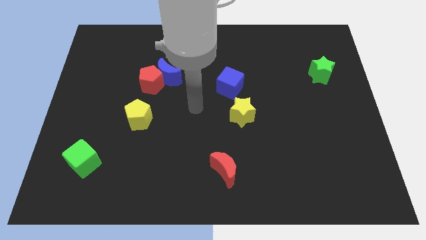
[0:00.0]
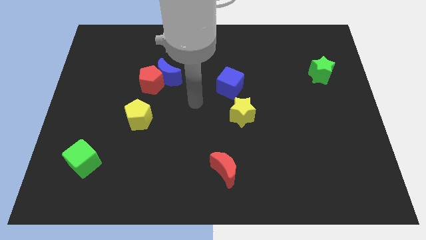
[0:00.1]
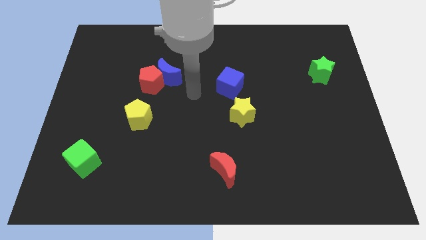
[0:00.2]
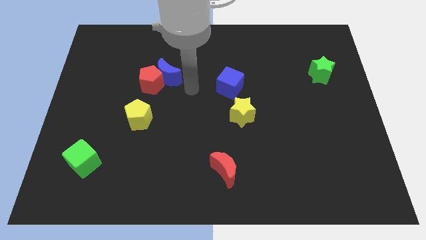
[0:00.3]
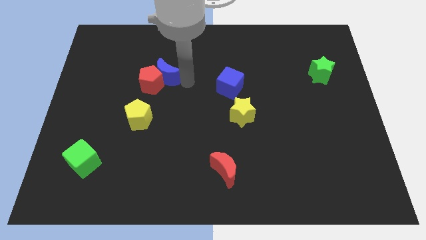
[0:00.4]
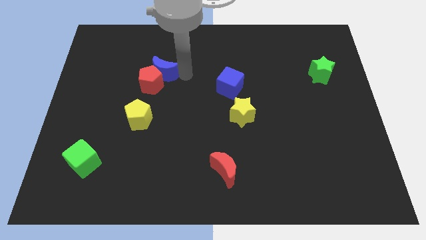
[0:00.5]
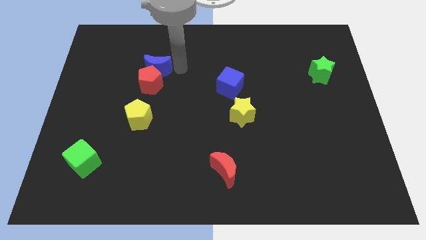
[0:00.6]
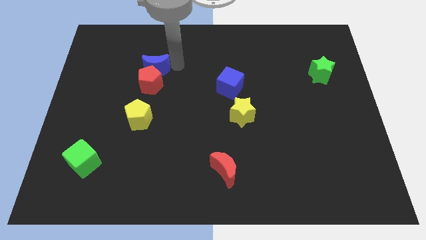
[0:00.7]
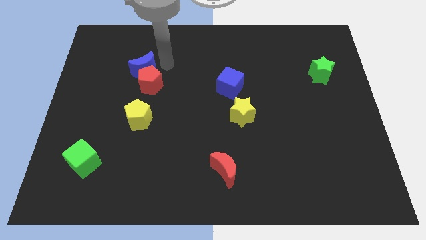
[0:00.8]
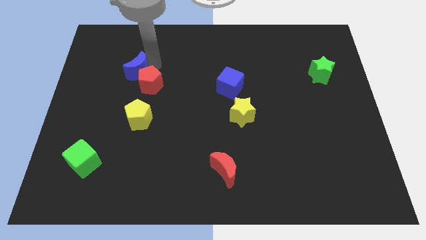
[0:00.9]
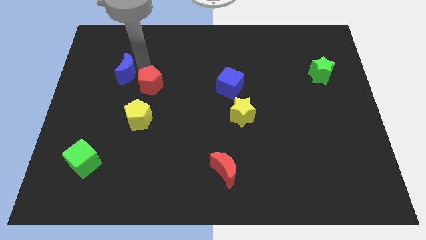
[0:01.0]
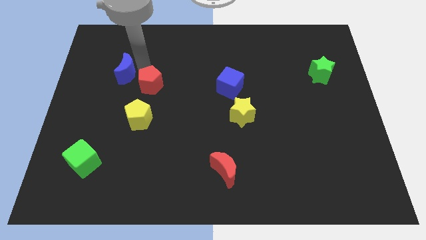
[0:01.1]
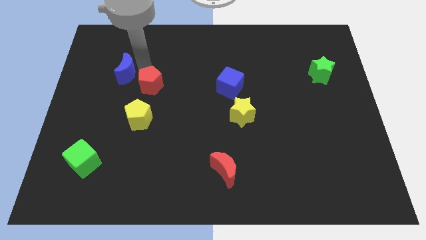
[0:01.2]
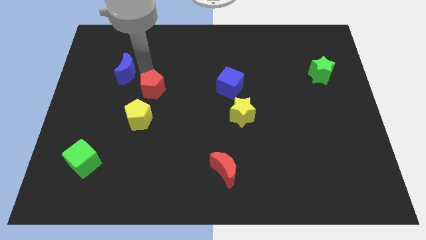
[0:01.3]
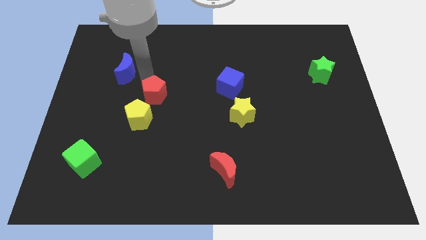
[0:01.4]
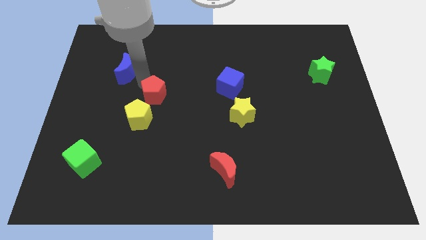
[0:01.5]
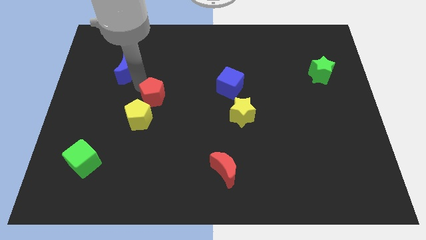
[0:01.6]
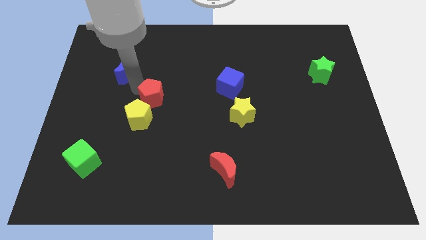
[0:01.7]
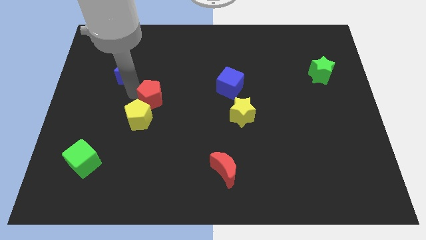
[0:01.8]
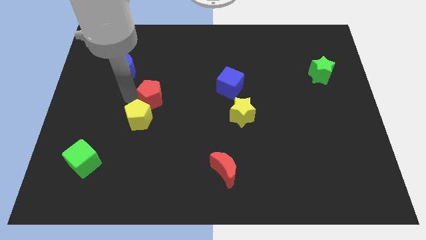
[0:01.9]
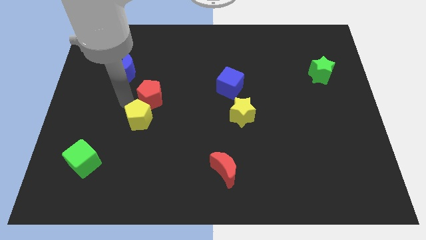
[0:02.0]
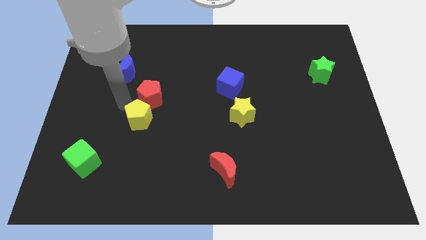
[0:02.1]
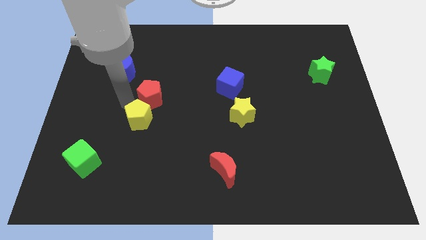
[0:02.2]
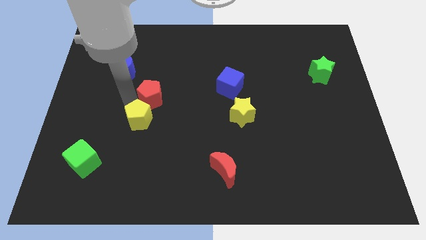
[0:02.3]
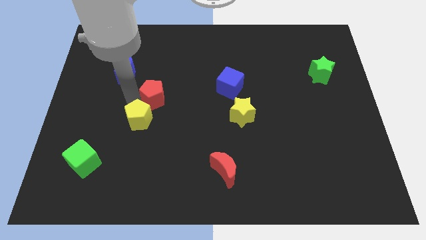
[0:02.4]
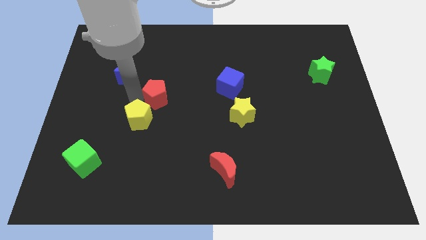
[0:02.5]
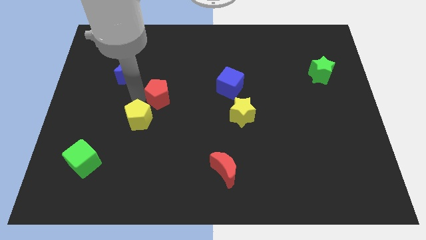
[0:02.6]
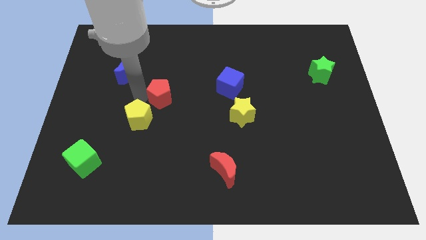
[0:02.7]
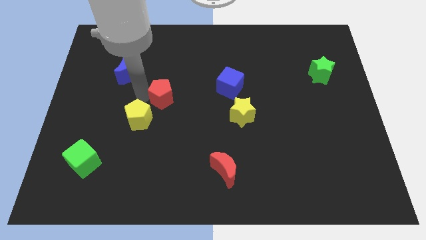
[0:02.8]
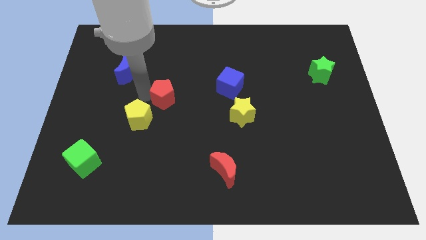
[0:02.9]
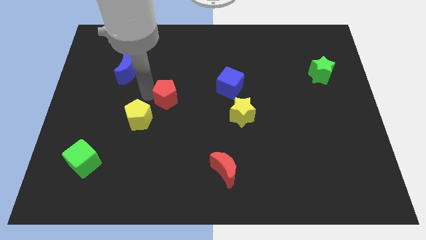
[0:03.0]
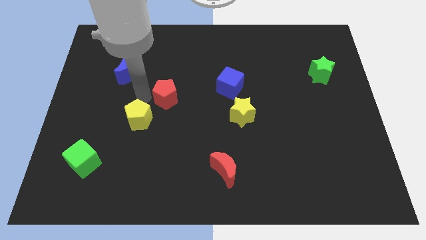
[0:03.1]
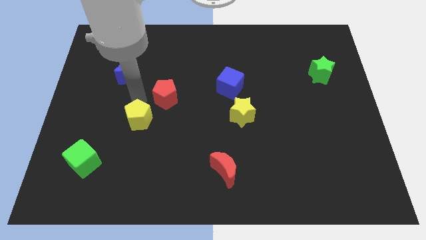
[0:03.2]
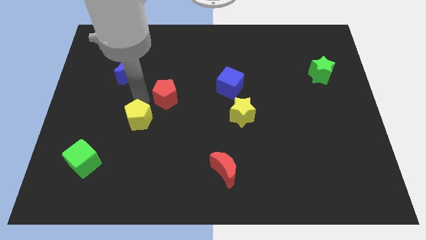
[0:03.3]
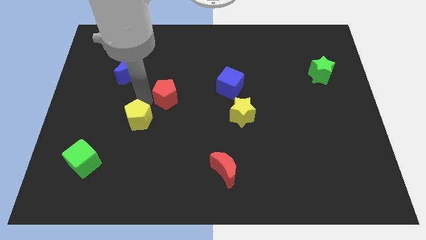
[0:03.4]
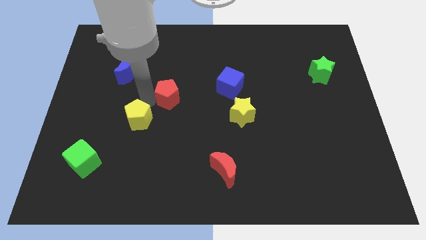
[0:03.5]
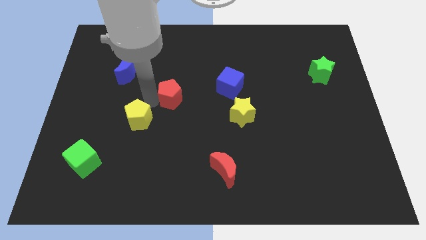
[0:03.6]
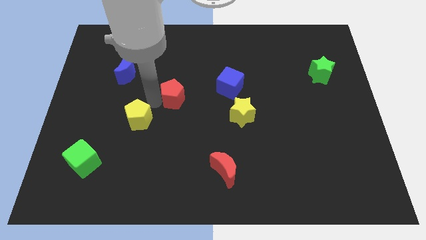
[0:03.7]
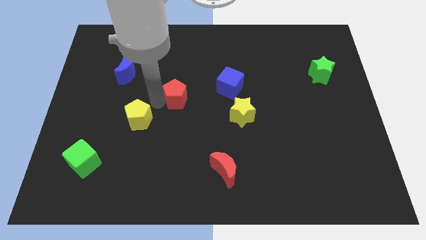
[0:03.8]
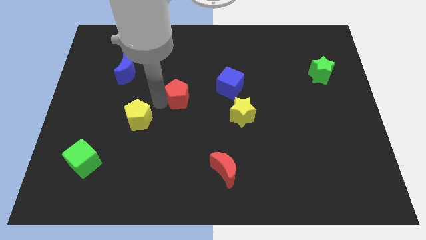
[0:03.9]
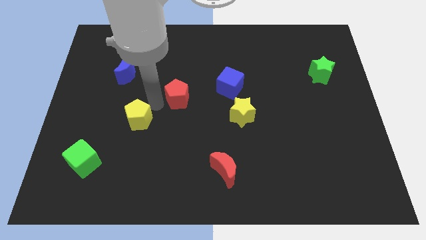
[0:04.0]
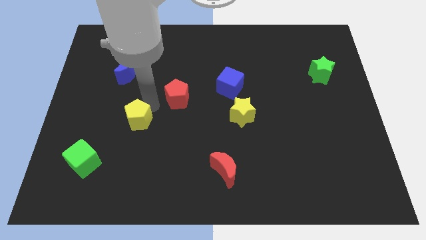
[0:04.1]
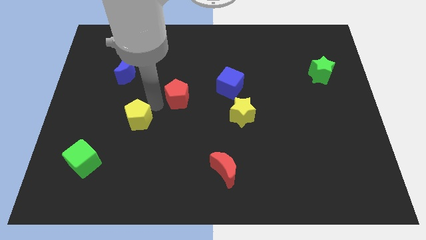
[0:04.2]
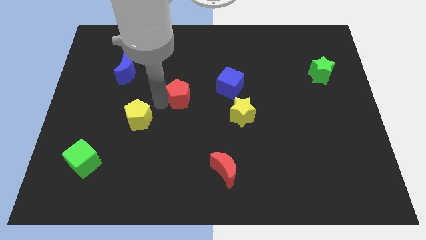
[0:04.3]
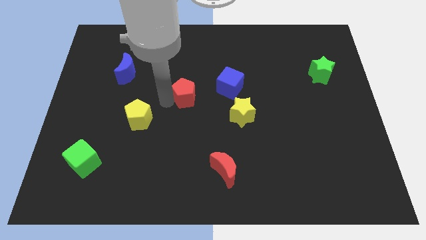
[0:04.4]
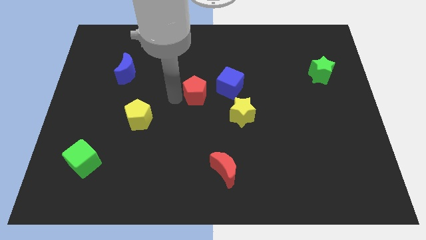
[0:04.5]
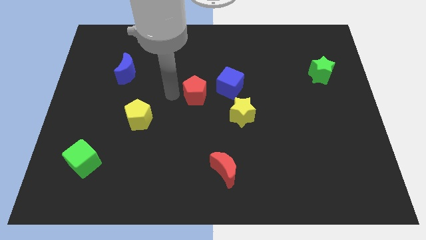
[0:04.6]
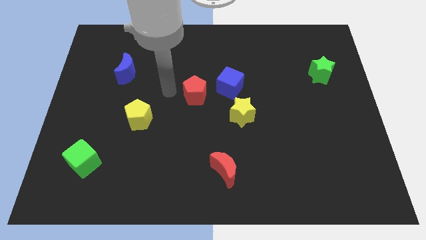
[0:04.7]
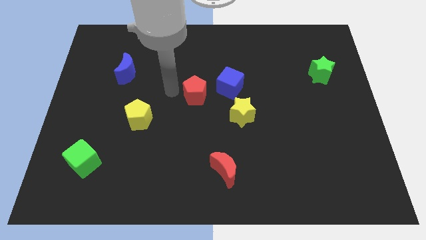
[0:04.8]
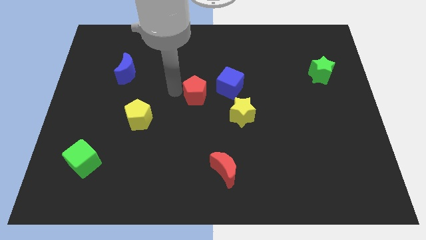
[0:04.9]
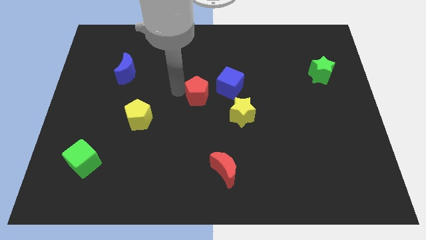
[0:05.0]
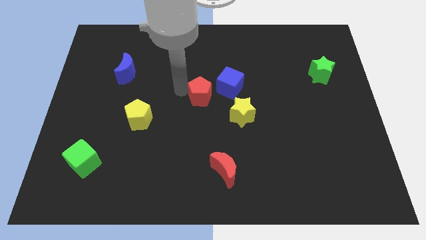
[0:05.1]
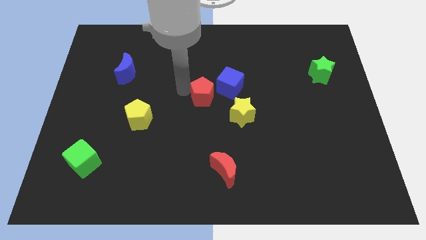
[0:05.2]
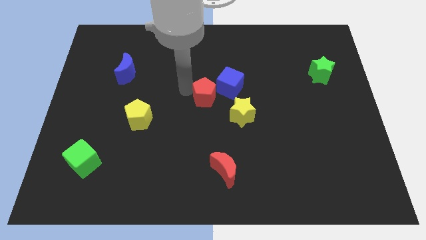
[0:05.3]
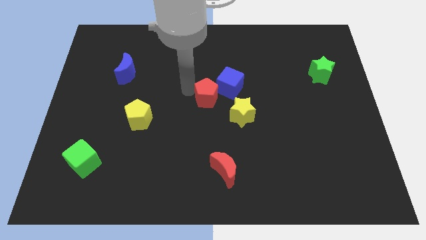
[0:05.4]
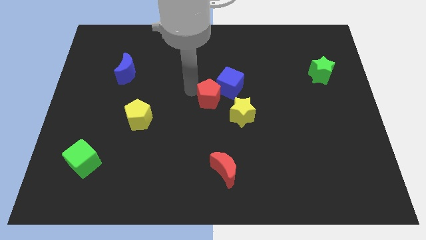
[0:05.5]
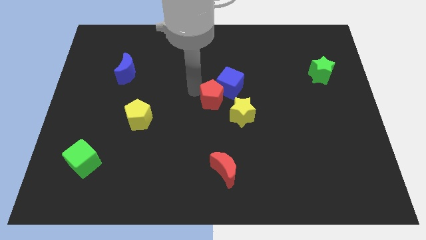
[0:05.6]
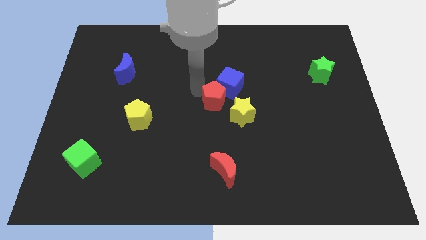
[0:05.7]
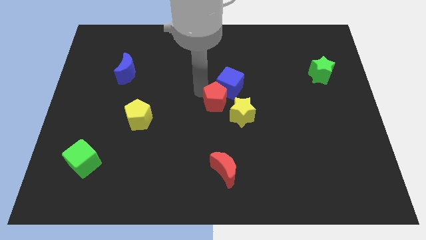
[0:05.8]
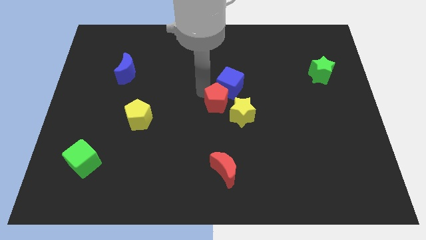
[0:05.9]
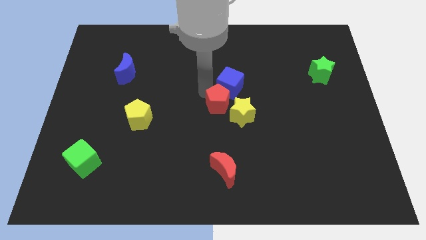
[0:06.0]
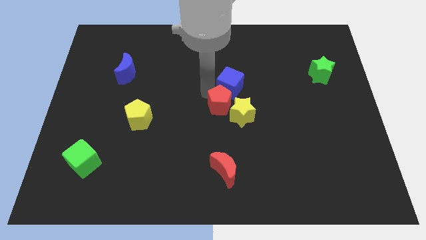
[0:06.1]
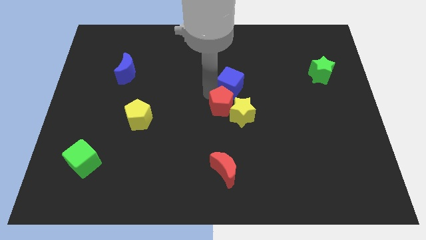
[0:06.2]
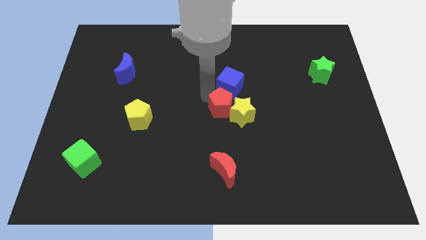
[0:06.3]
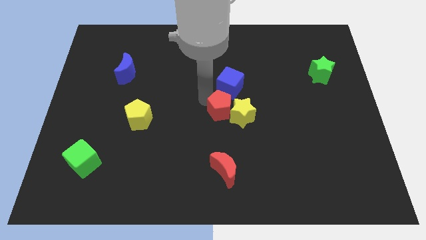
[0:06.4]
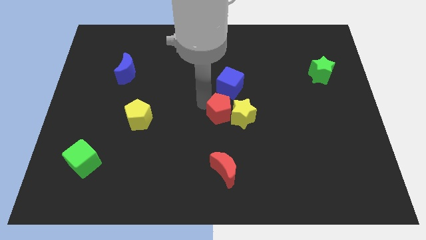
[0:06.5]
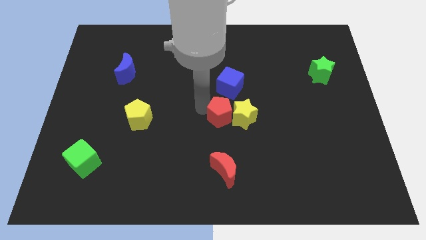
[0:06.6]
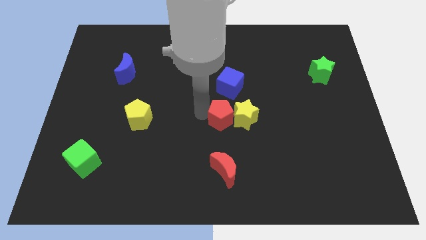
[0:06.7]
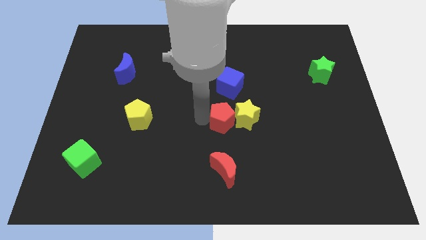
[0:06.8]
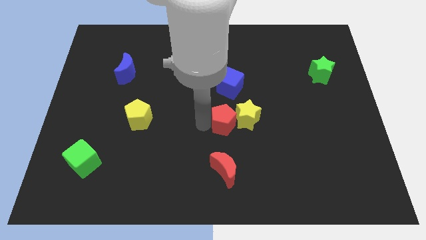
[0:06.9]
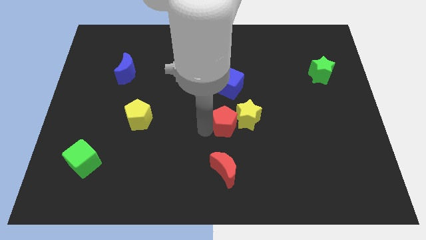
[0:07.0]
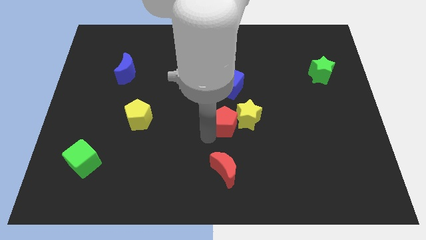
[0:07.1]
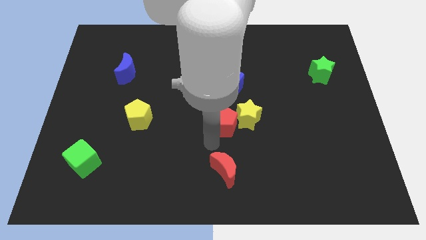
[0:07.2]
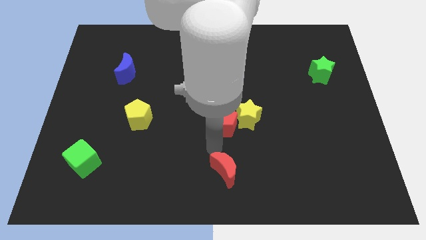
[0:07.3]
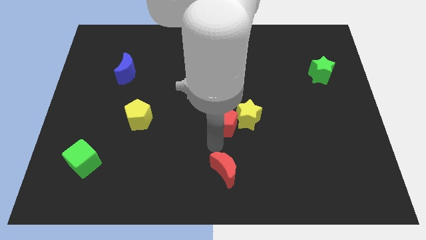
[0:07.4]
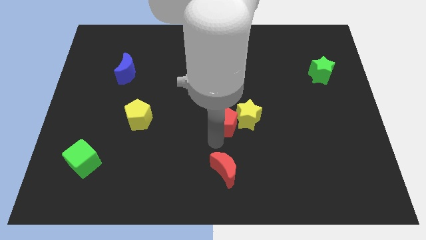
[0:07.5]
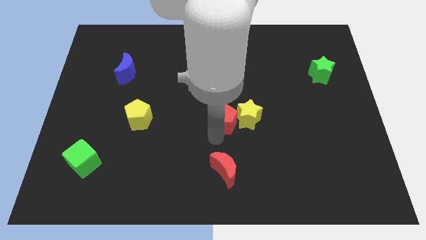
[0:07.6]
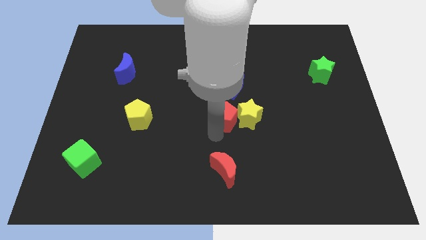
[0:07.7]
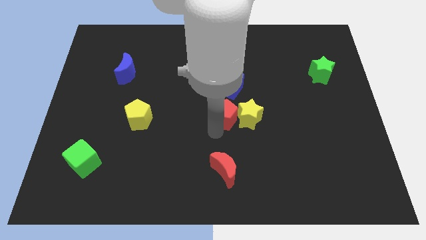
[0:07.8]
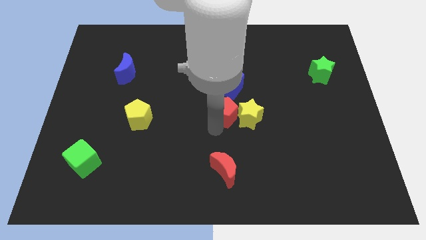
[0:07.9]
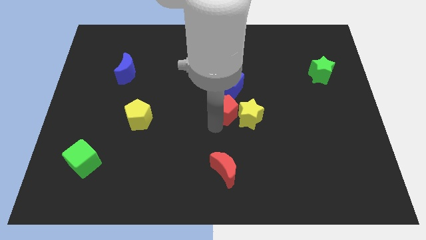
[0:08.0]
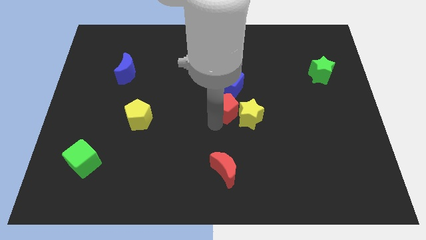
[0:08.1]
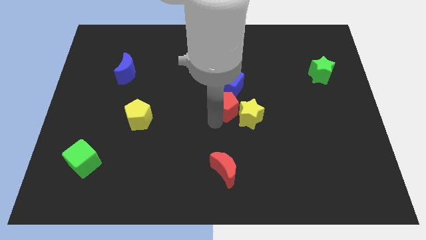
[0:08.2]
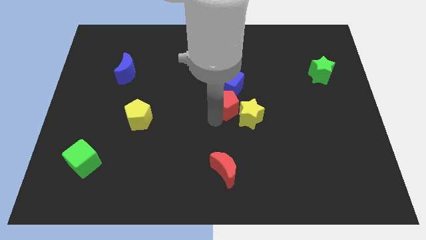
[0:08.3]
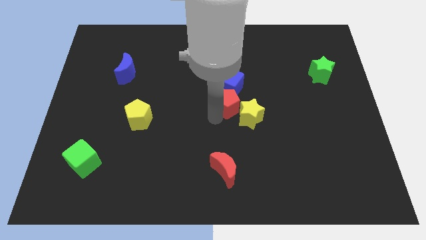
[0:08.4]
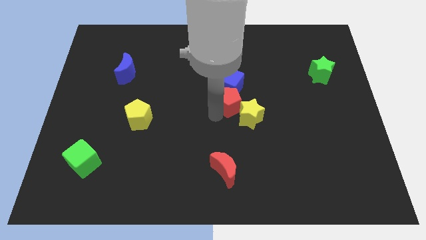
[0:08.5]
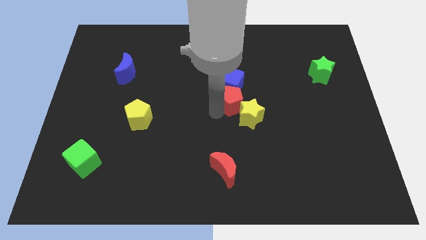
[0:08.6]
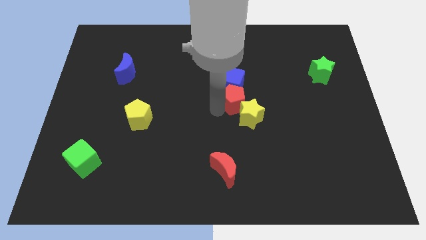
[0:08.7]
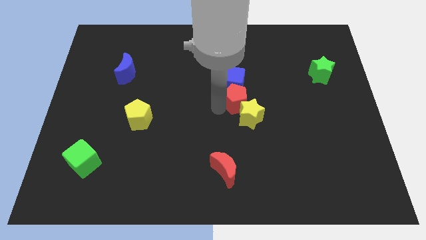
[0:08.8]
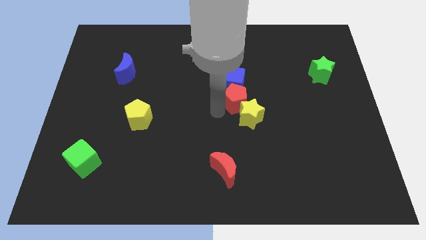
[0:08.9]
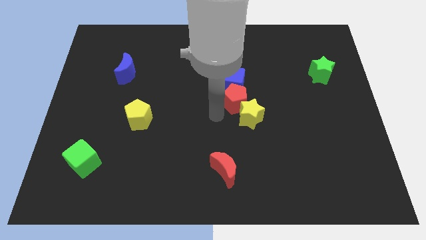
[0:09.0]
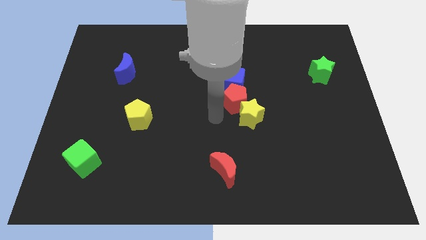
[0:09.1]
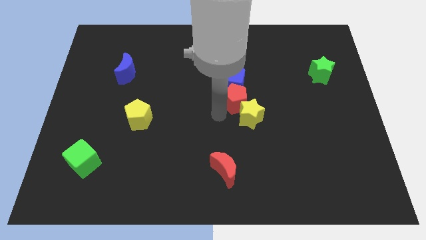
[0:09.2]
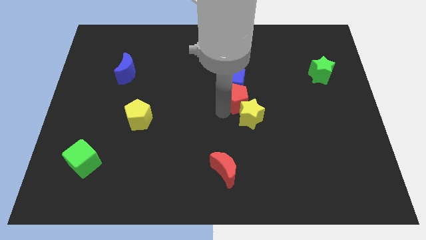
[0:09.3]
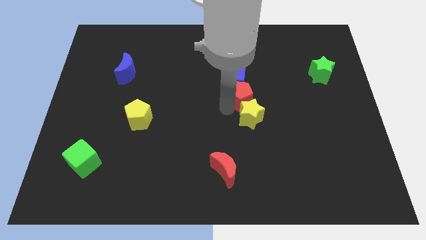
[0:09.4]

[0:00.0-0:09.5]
slide the red pentagon right
